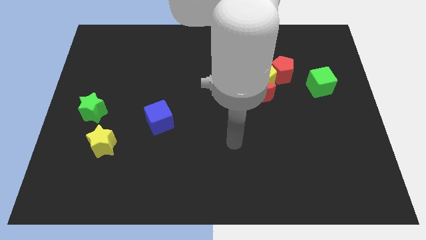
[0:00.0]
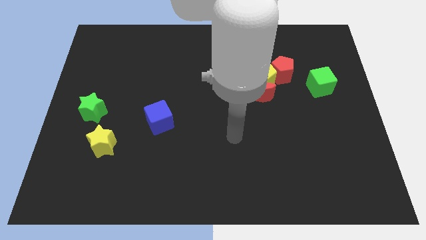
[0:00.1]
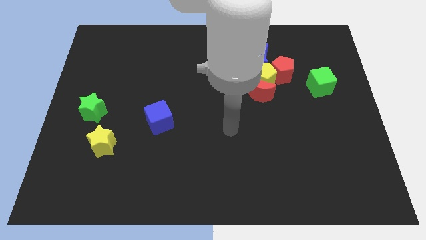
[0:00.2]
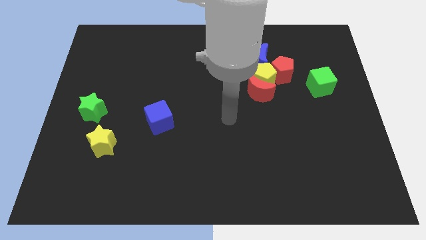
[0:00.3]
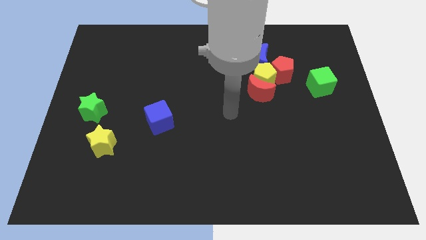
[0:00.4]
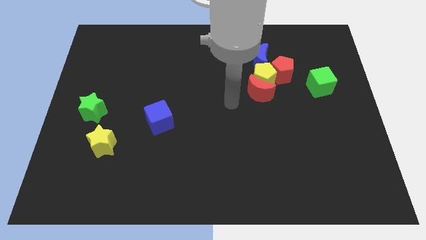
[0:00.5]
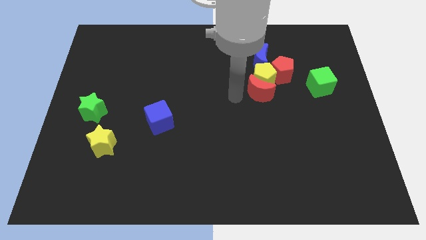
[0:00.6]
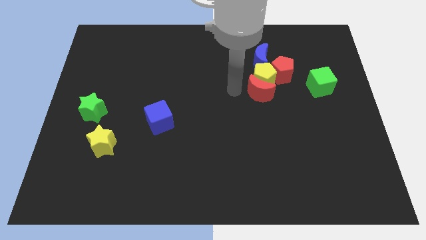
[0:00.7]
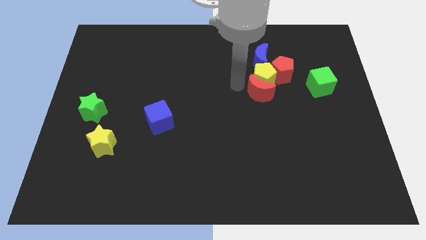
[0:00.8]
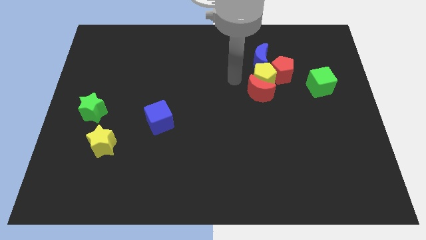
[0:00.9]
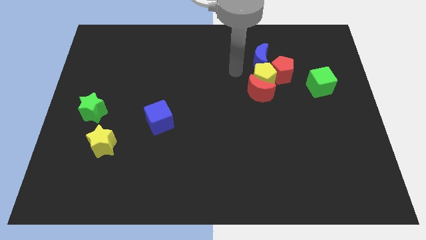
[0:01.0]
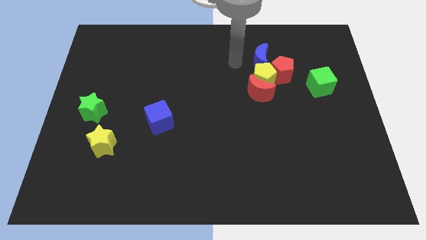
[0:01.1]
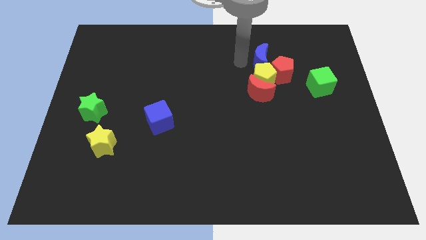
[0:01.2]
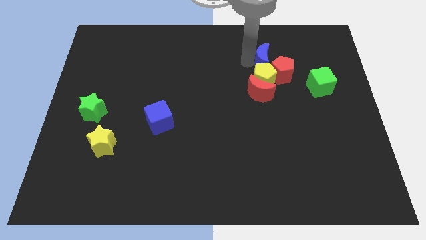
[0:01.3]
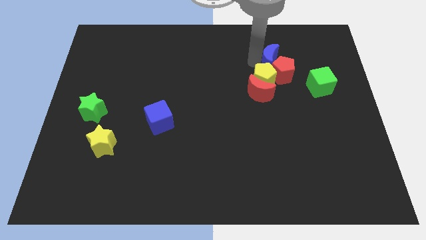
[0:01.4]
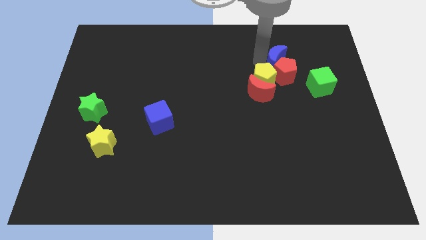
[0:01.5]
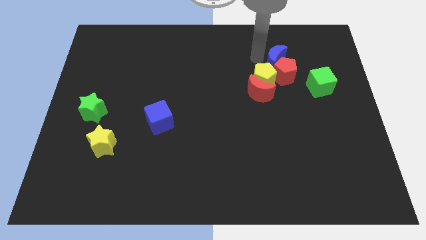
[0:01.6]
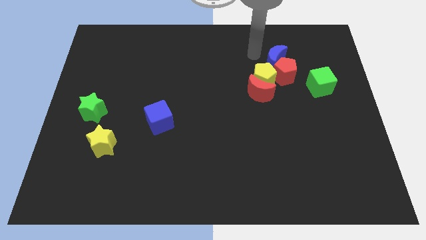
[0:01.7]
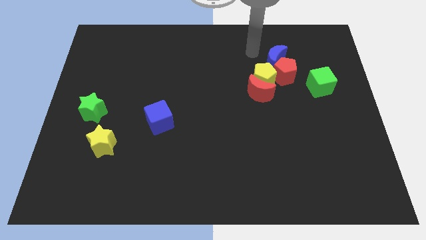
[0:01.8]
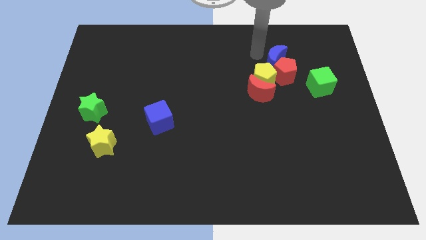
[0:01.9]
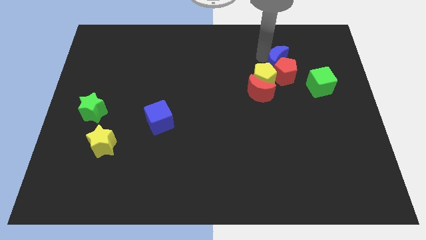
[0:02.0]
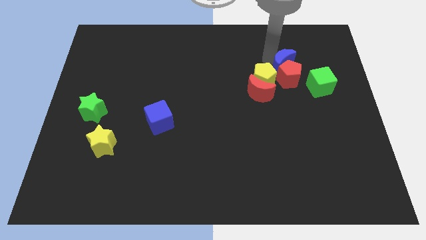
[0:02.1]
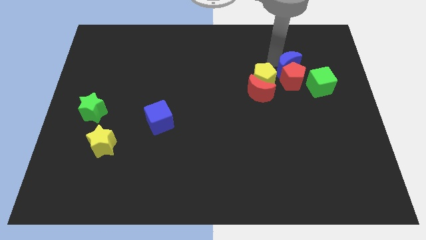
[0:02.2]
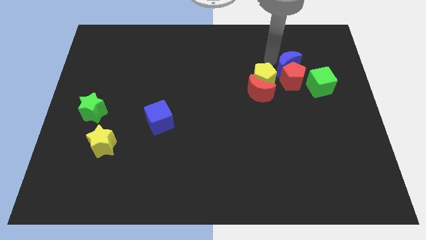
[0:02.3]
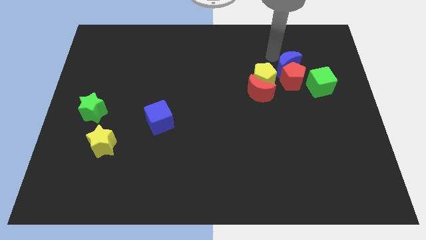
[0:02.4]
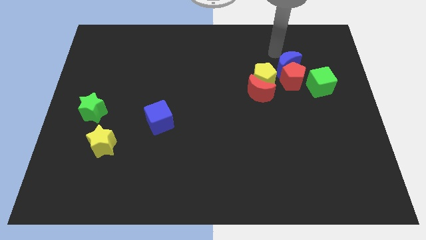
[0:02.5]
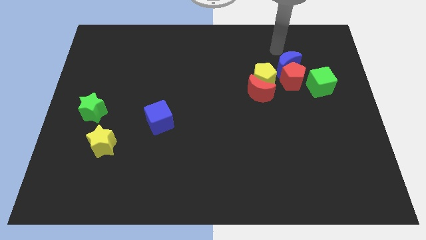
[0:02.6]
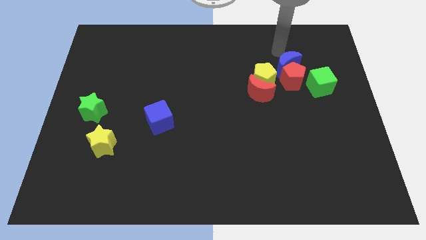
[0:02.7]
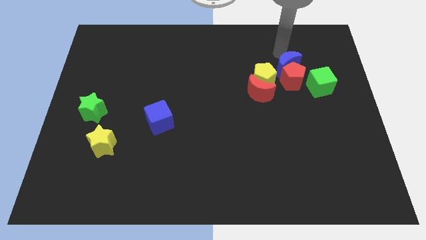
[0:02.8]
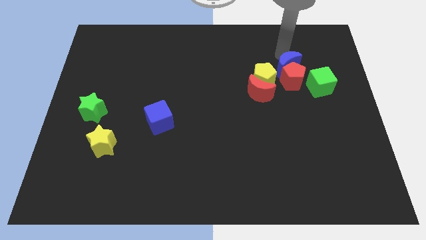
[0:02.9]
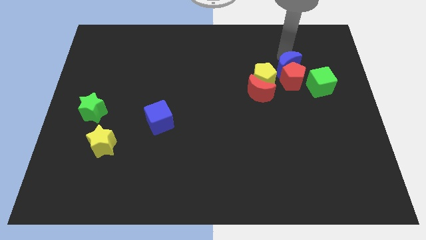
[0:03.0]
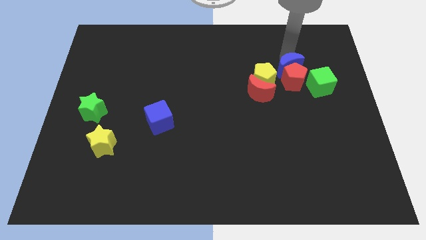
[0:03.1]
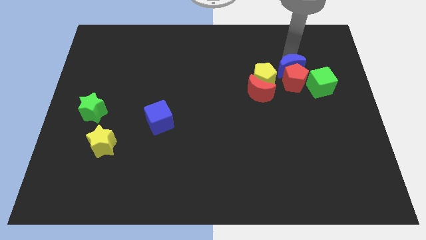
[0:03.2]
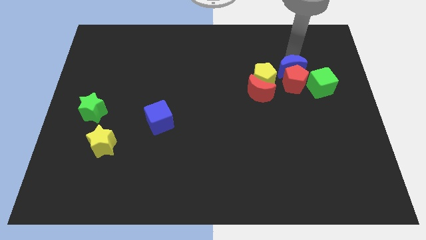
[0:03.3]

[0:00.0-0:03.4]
push the blue moon down and to the right diagonally a bit

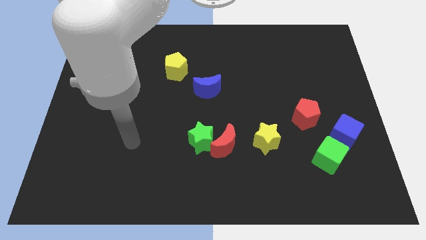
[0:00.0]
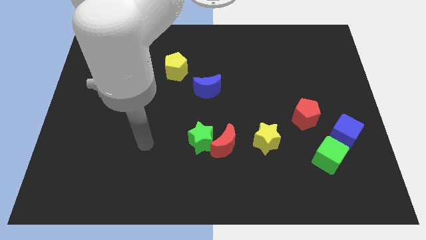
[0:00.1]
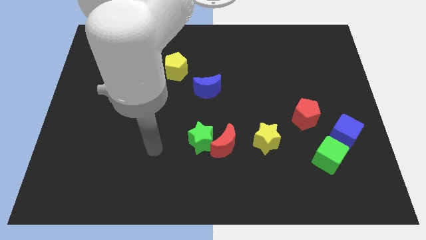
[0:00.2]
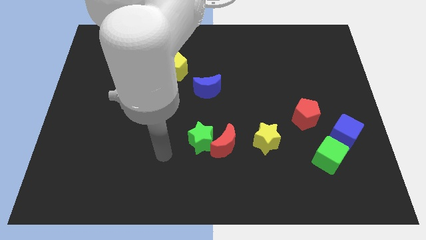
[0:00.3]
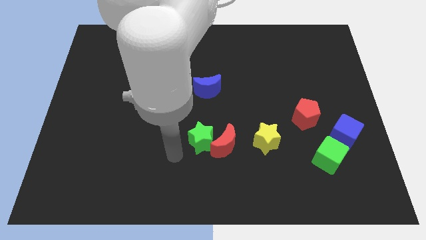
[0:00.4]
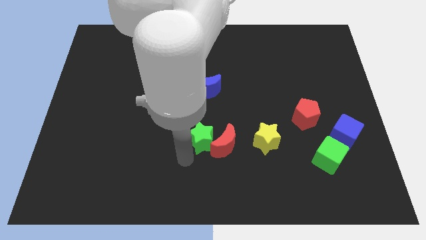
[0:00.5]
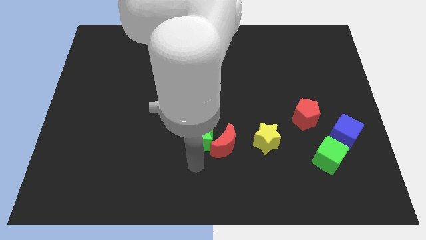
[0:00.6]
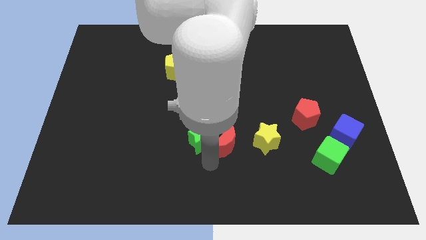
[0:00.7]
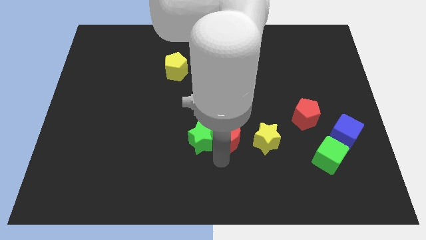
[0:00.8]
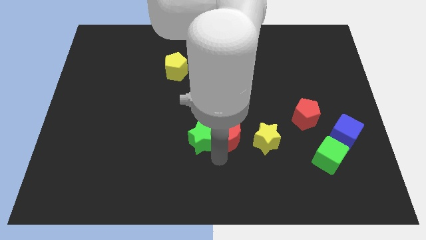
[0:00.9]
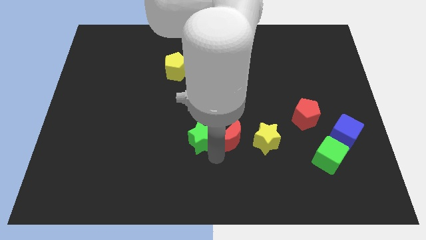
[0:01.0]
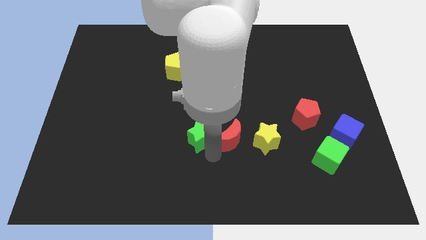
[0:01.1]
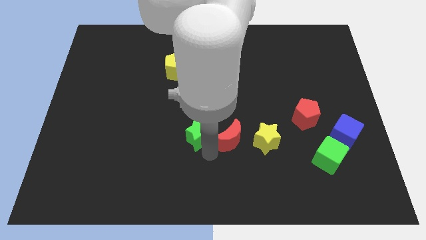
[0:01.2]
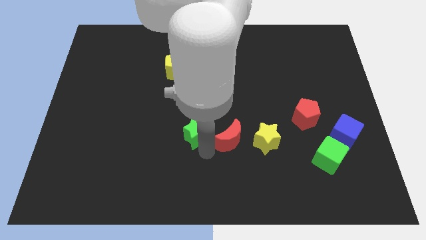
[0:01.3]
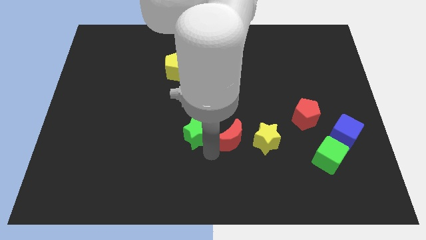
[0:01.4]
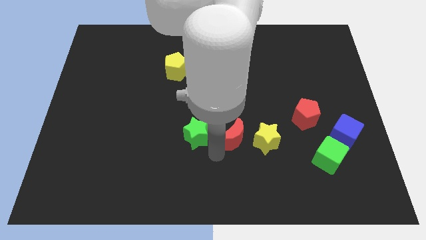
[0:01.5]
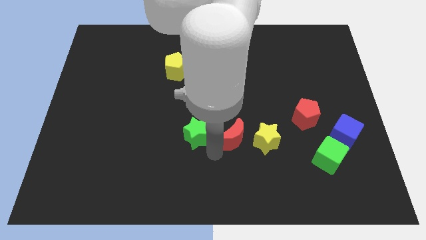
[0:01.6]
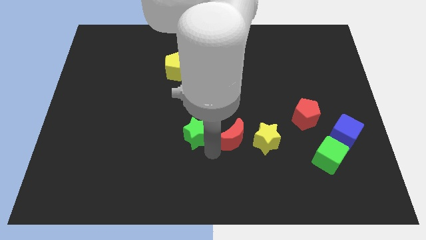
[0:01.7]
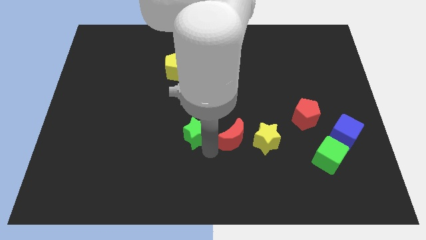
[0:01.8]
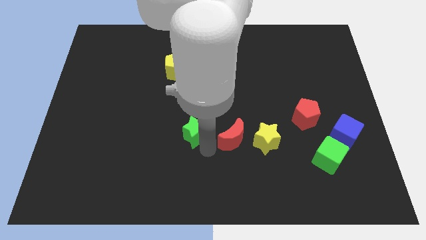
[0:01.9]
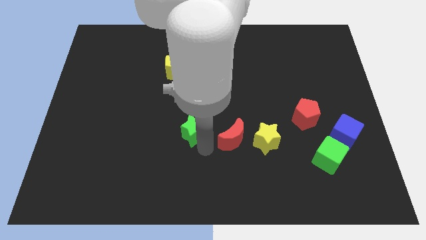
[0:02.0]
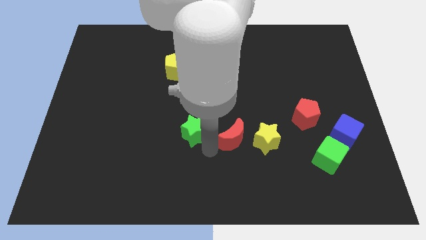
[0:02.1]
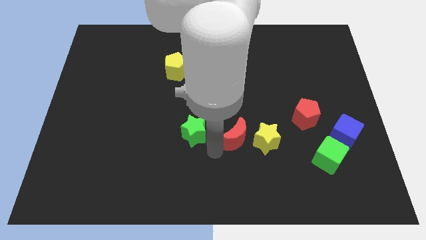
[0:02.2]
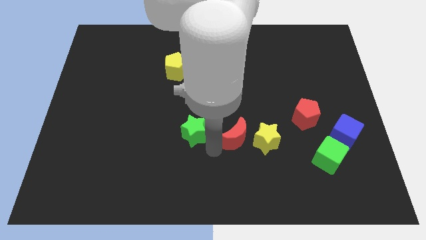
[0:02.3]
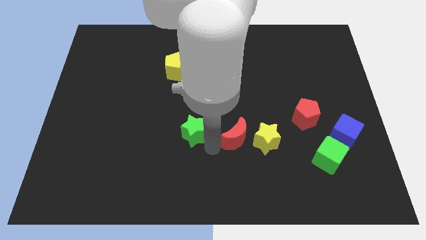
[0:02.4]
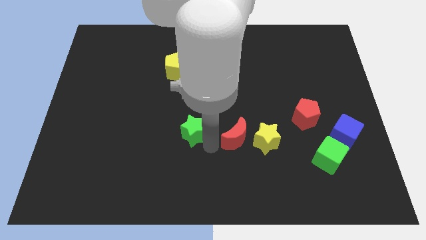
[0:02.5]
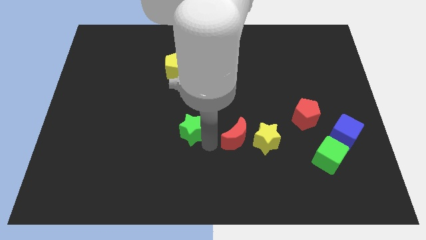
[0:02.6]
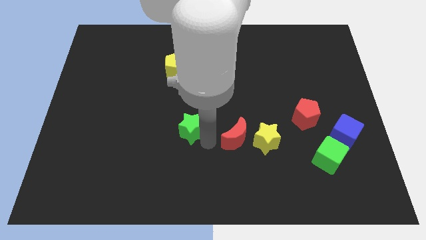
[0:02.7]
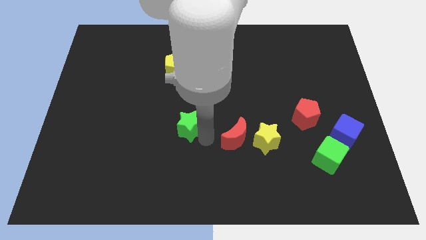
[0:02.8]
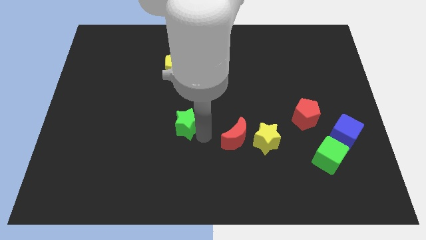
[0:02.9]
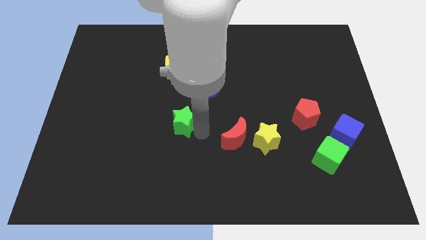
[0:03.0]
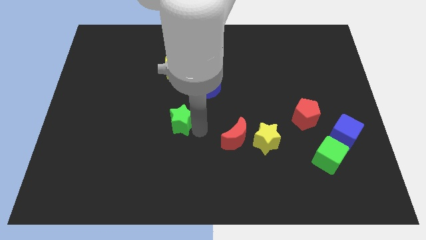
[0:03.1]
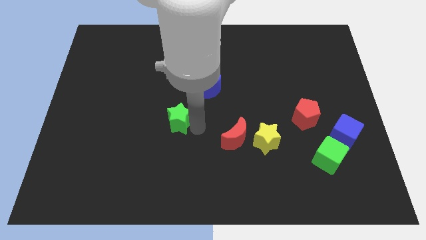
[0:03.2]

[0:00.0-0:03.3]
push the green star slightly upwards and left

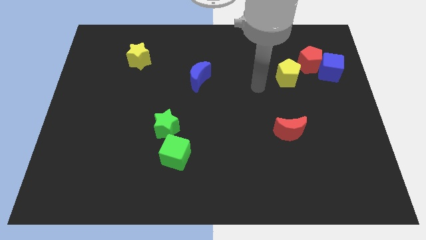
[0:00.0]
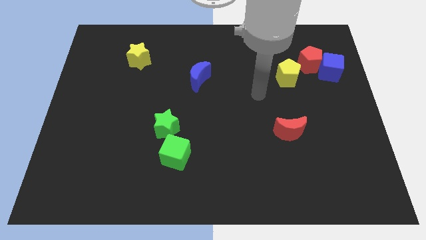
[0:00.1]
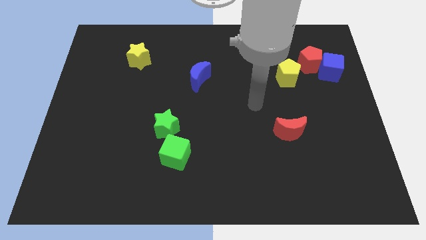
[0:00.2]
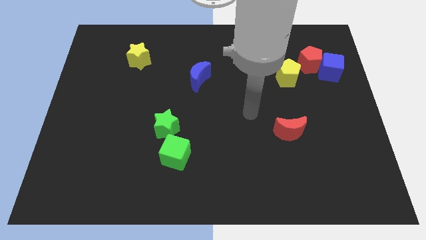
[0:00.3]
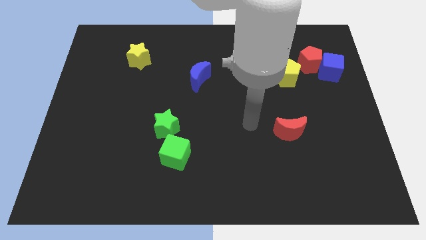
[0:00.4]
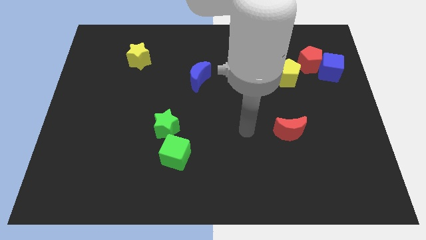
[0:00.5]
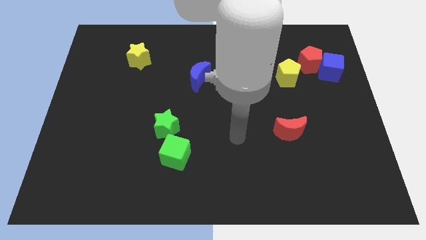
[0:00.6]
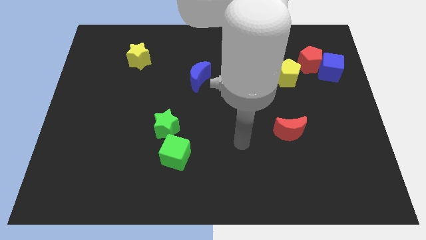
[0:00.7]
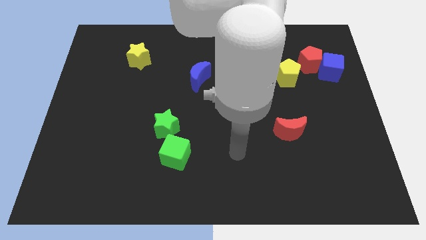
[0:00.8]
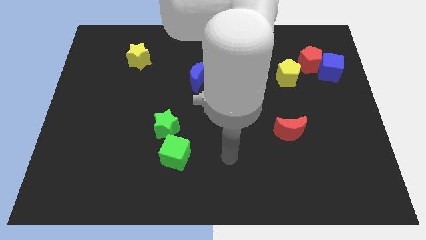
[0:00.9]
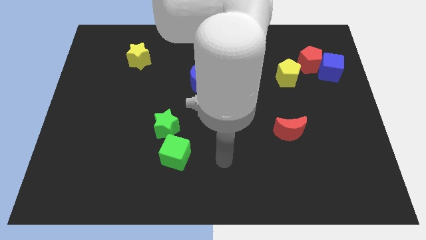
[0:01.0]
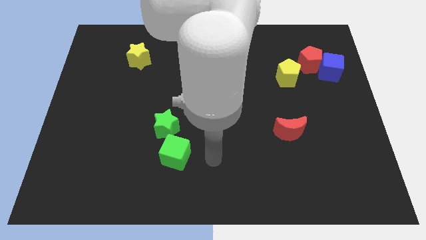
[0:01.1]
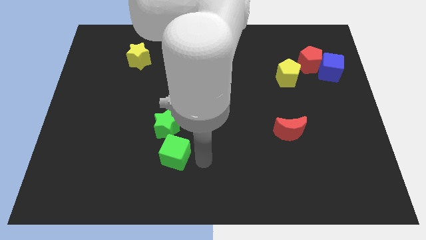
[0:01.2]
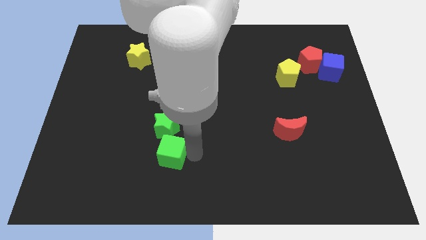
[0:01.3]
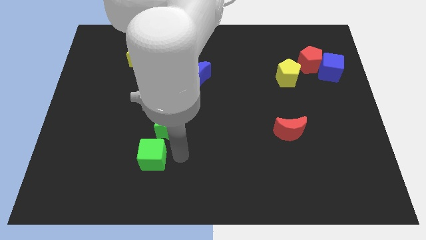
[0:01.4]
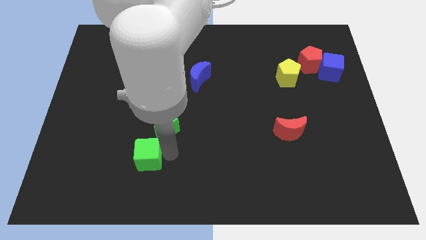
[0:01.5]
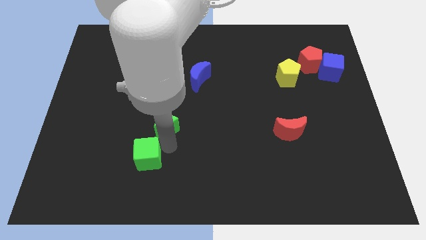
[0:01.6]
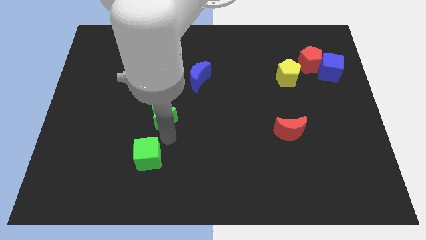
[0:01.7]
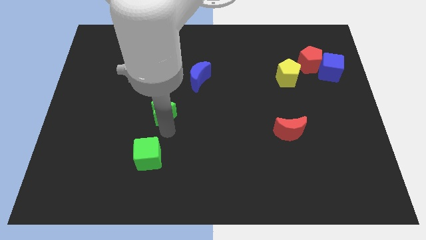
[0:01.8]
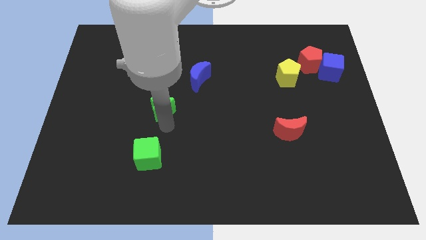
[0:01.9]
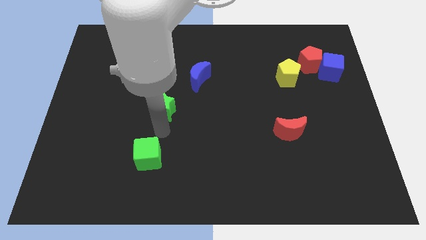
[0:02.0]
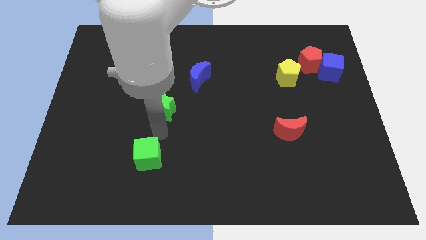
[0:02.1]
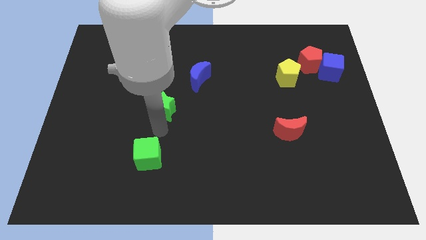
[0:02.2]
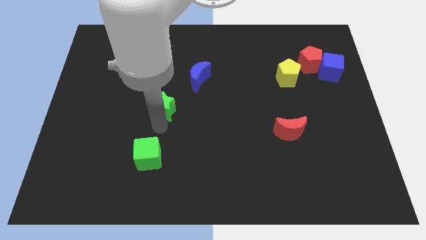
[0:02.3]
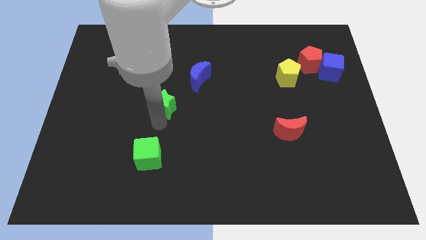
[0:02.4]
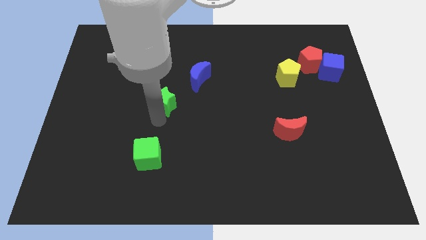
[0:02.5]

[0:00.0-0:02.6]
move the green star a little bit upwards
